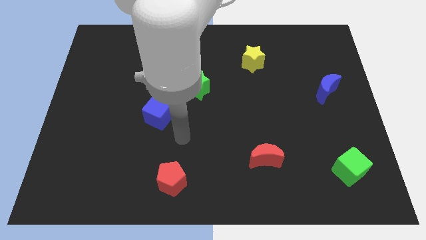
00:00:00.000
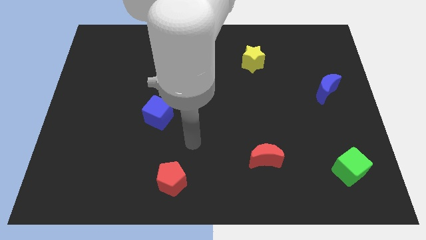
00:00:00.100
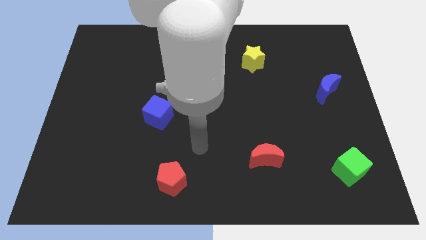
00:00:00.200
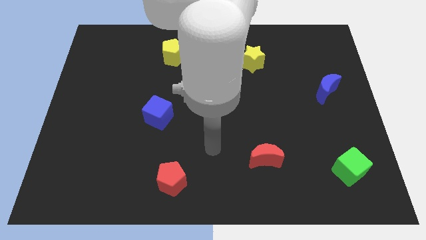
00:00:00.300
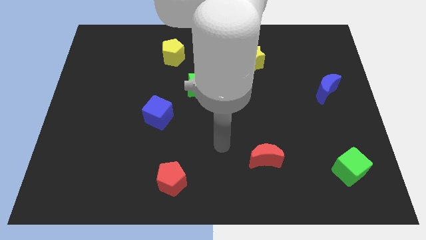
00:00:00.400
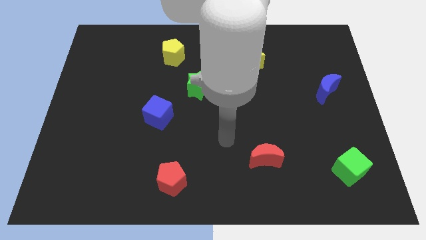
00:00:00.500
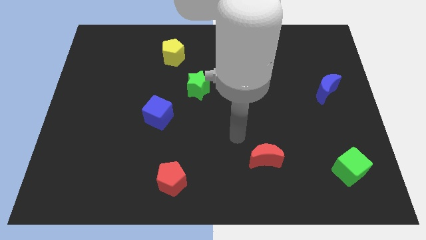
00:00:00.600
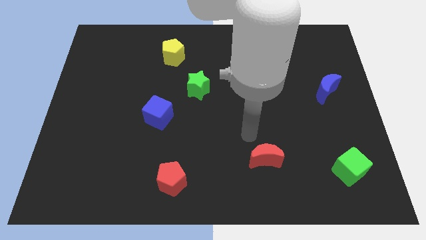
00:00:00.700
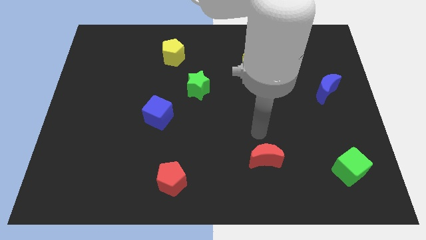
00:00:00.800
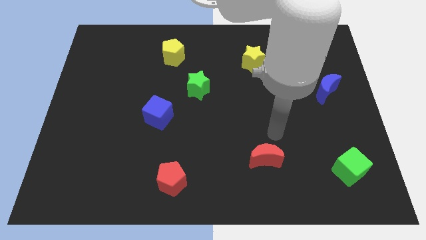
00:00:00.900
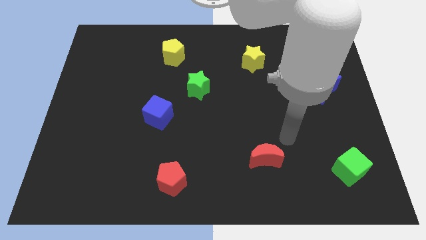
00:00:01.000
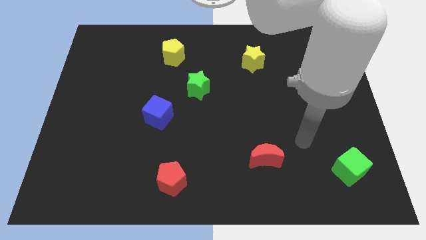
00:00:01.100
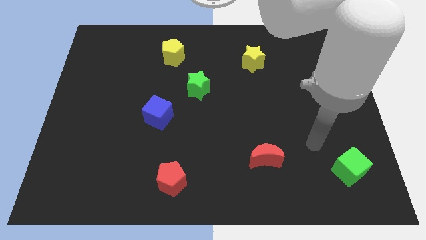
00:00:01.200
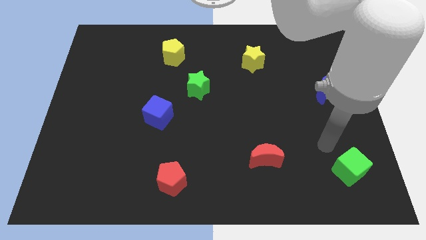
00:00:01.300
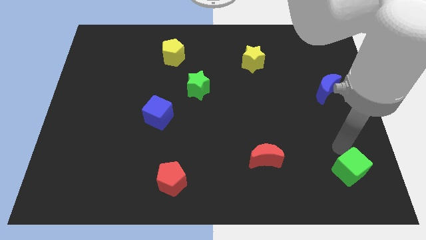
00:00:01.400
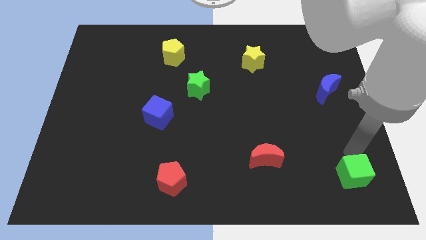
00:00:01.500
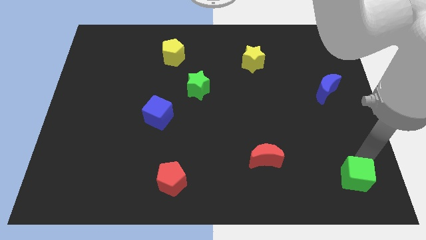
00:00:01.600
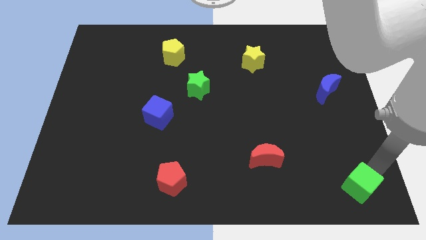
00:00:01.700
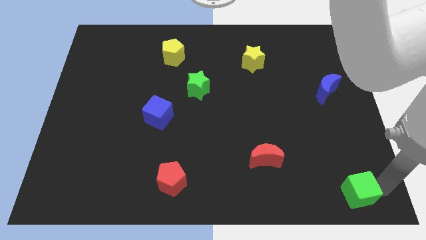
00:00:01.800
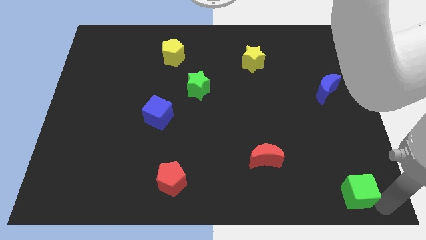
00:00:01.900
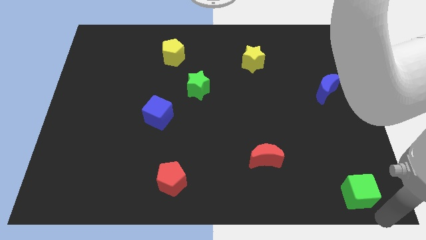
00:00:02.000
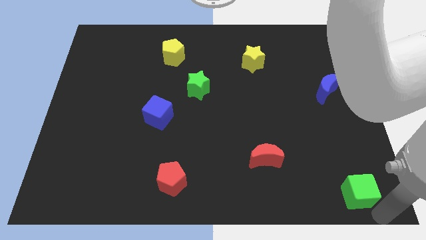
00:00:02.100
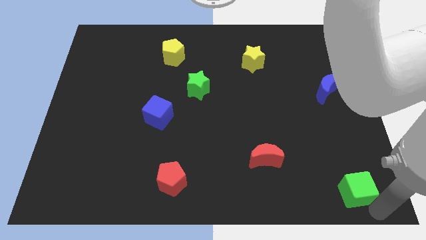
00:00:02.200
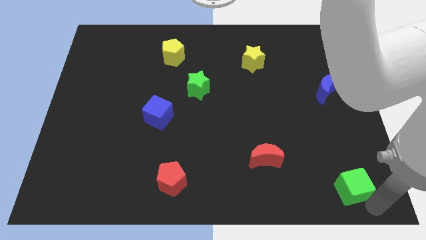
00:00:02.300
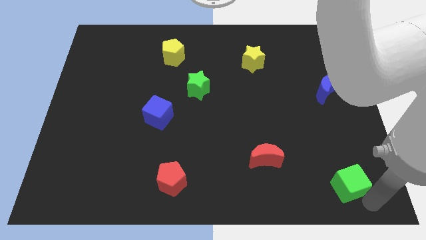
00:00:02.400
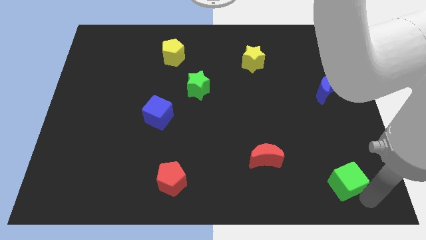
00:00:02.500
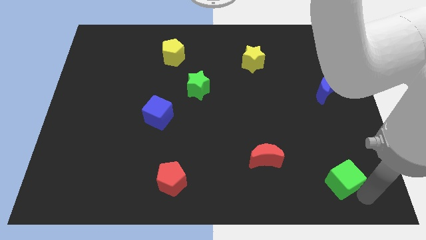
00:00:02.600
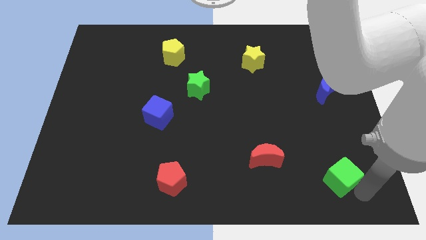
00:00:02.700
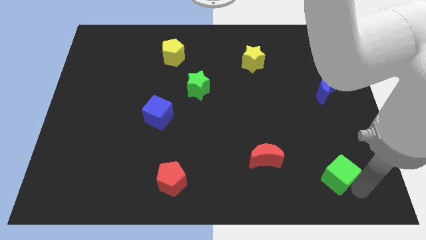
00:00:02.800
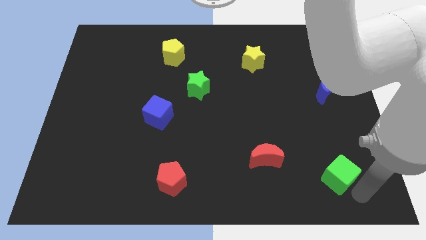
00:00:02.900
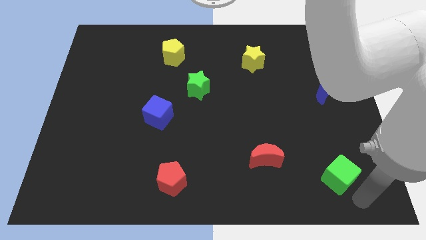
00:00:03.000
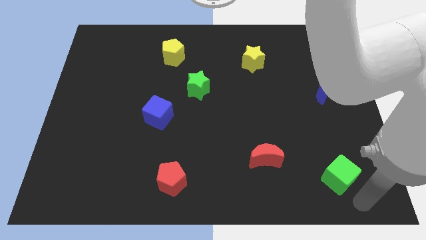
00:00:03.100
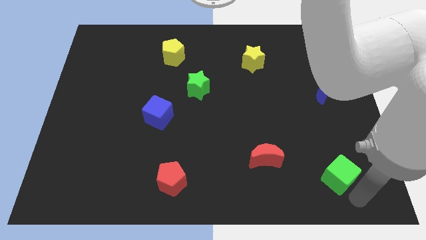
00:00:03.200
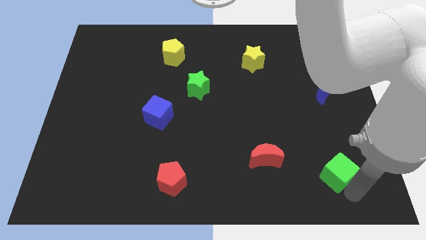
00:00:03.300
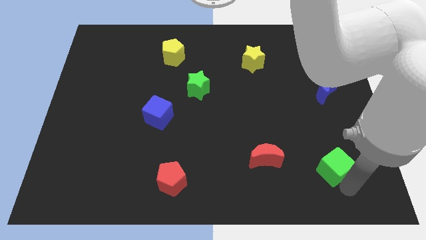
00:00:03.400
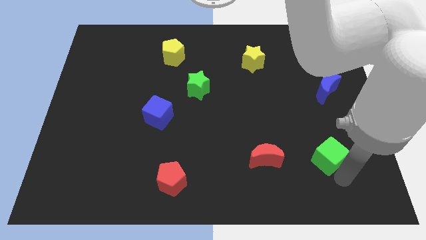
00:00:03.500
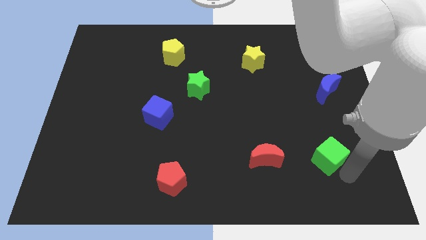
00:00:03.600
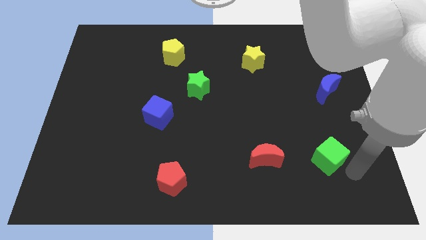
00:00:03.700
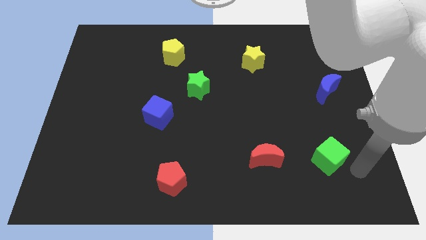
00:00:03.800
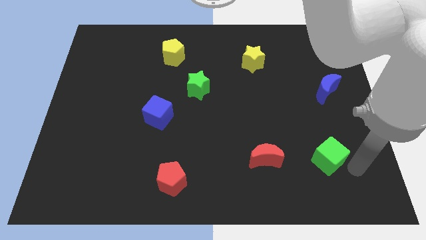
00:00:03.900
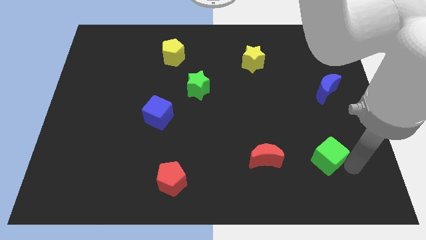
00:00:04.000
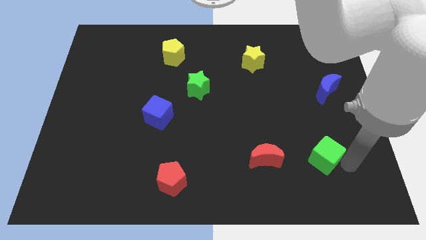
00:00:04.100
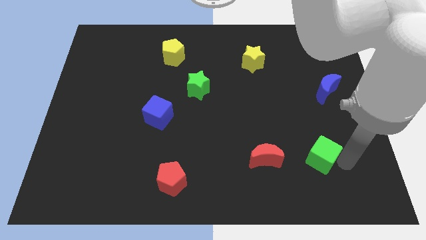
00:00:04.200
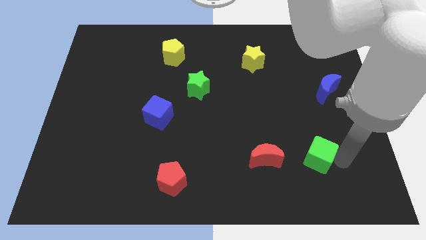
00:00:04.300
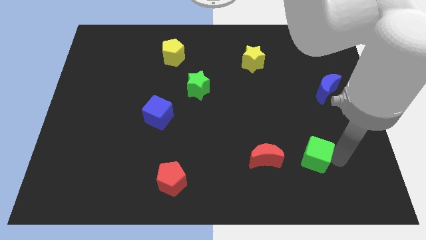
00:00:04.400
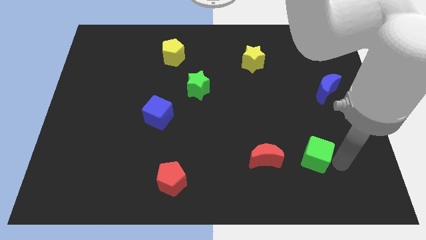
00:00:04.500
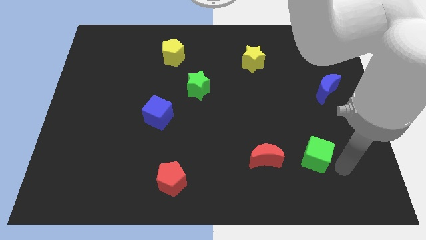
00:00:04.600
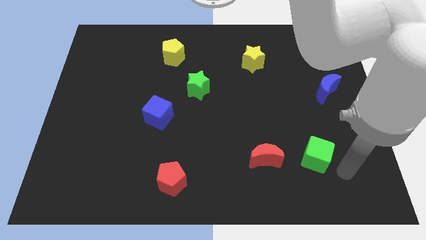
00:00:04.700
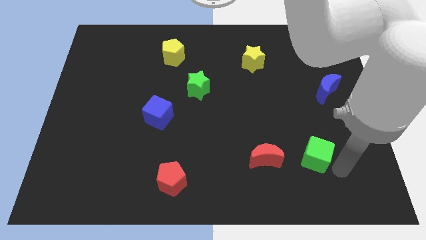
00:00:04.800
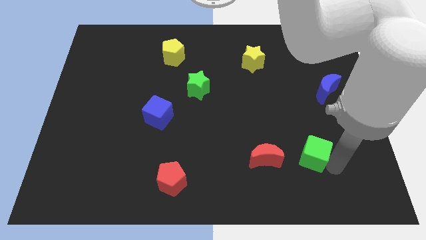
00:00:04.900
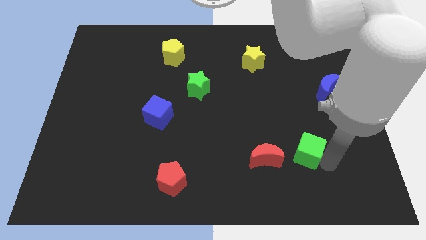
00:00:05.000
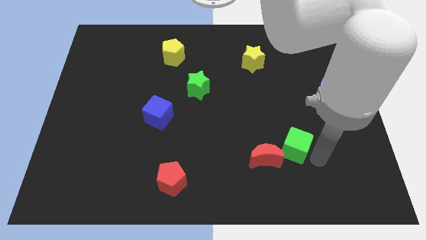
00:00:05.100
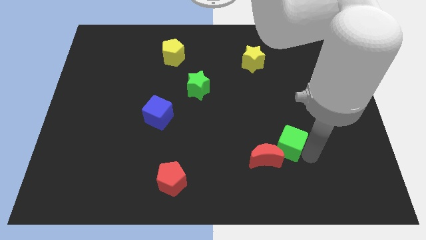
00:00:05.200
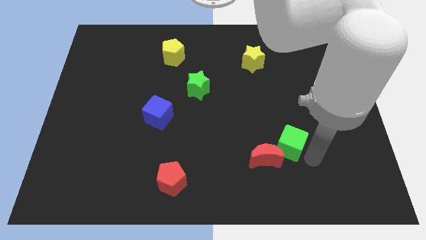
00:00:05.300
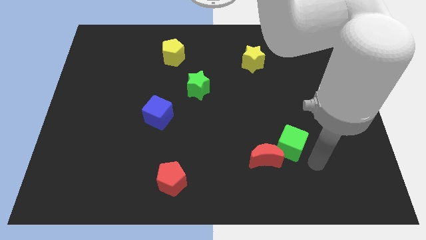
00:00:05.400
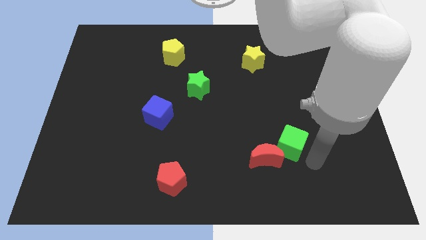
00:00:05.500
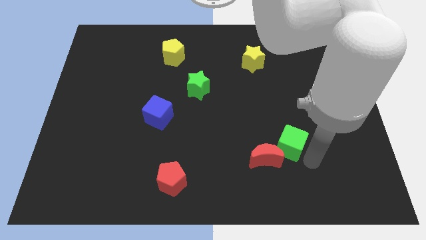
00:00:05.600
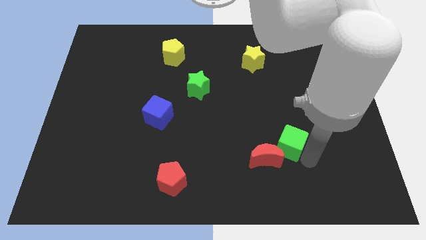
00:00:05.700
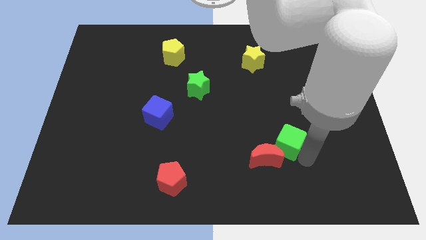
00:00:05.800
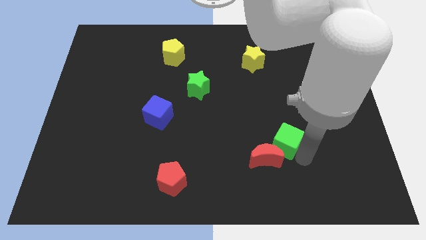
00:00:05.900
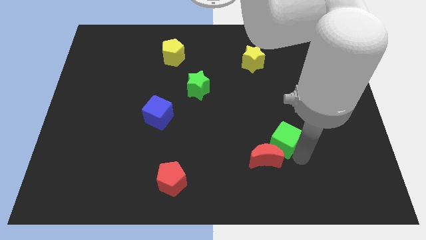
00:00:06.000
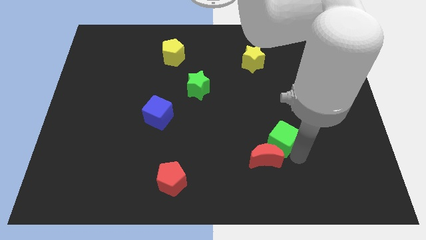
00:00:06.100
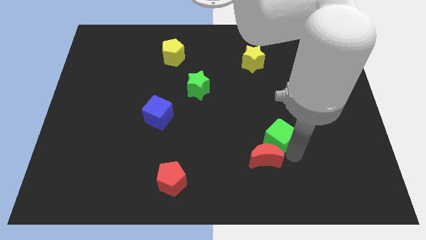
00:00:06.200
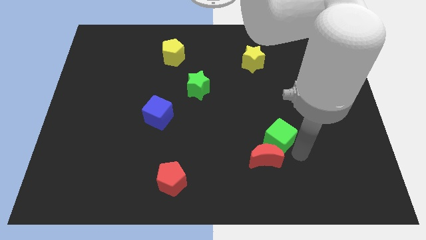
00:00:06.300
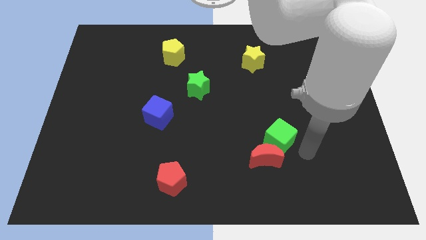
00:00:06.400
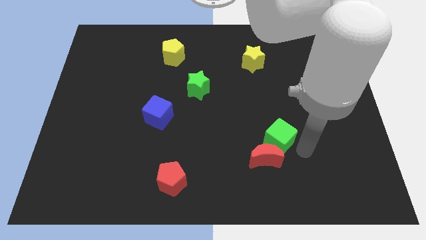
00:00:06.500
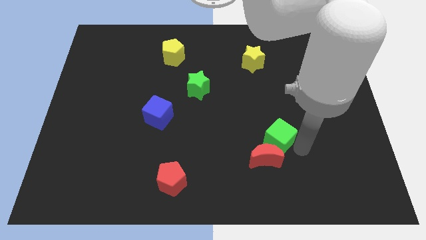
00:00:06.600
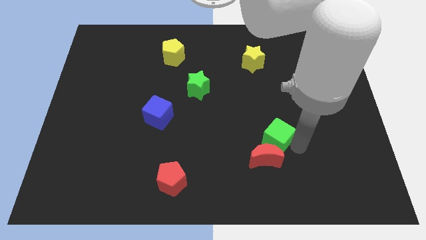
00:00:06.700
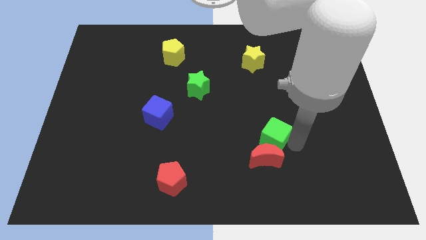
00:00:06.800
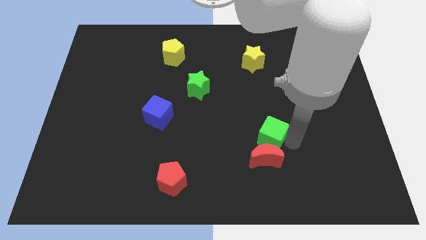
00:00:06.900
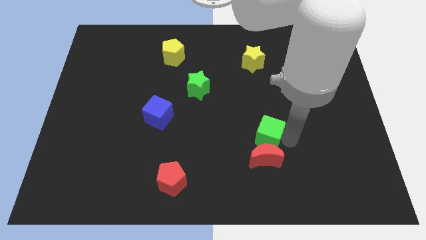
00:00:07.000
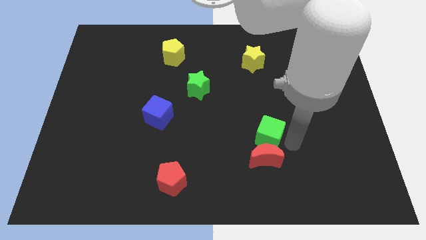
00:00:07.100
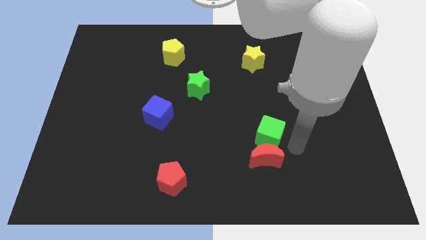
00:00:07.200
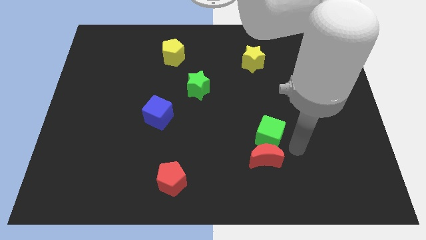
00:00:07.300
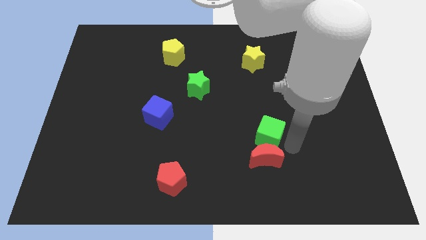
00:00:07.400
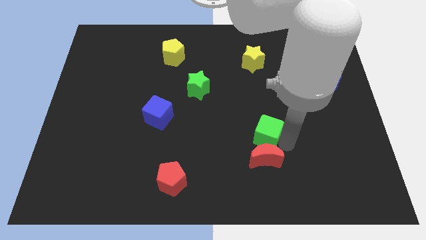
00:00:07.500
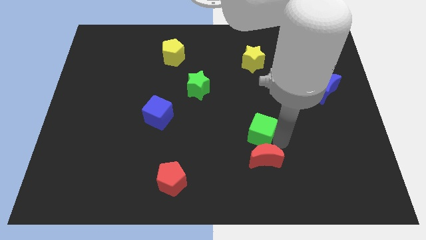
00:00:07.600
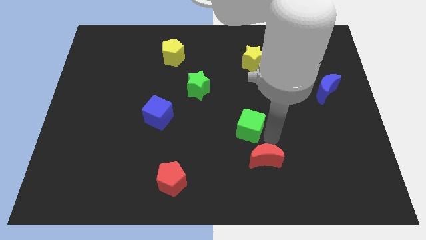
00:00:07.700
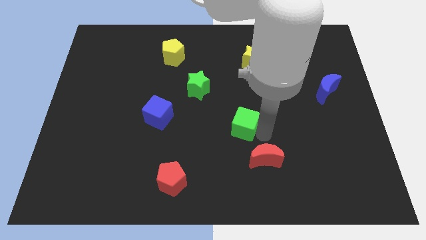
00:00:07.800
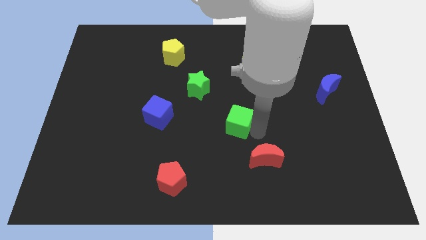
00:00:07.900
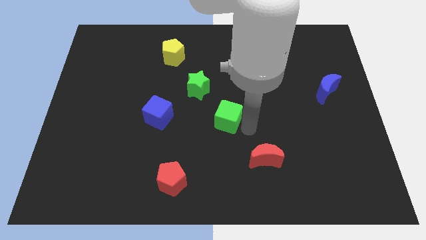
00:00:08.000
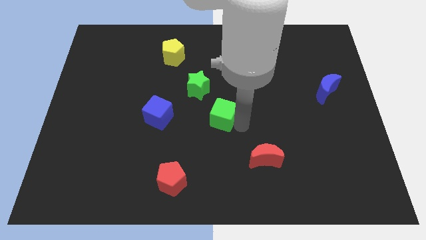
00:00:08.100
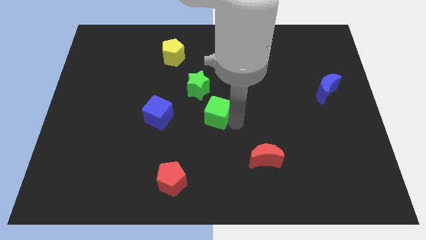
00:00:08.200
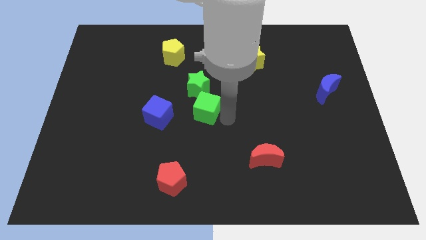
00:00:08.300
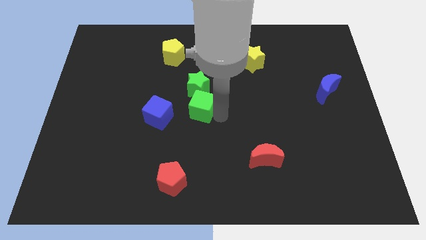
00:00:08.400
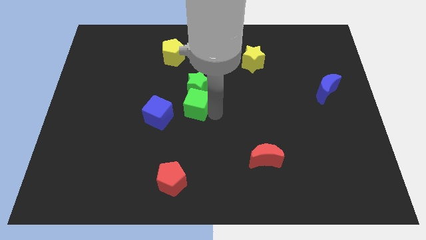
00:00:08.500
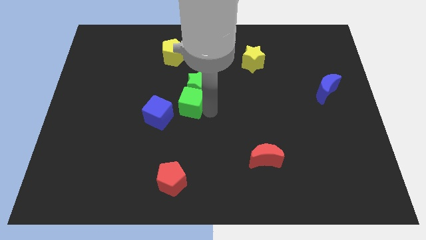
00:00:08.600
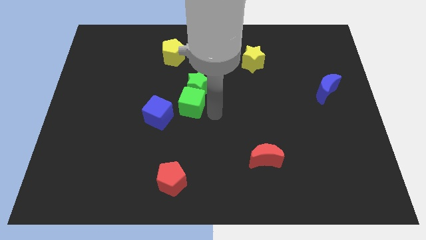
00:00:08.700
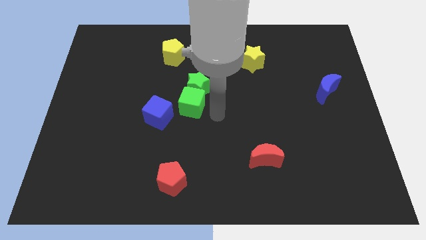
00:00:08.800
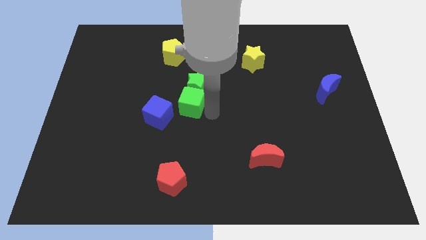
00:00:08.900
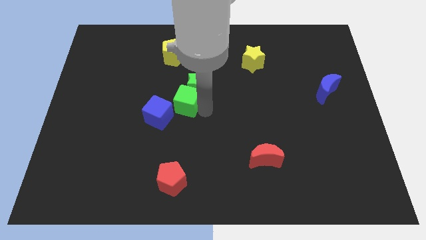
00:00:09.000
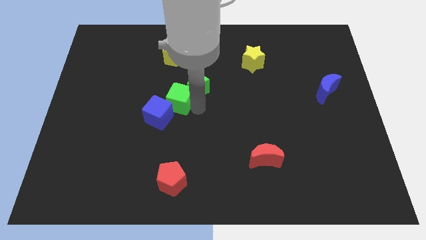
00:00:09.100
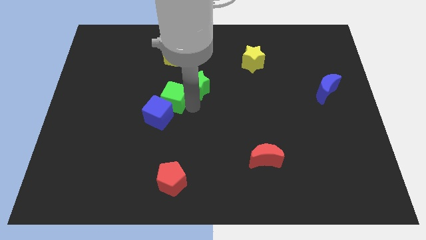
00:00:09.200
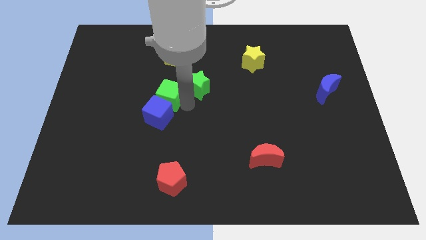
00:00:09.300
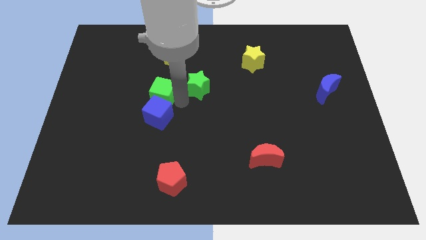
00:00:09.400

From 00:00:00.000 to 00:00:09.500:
move the green cube to the top left of the blue cube
